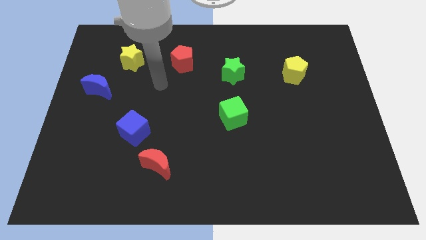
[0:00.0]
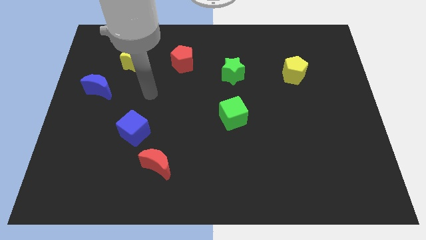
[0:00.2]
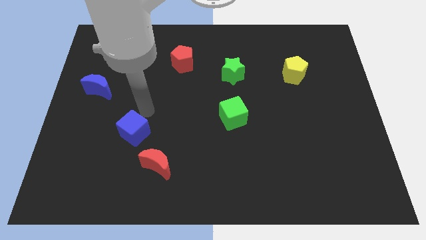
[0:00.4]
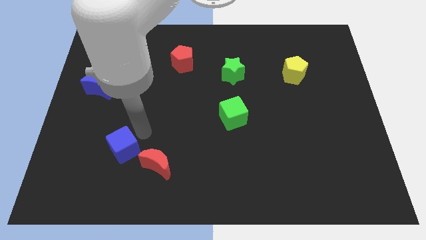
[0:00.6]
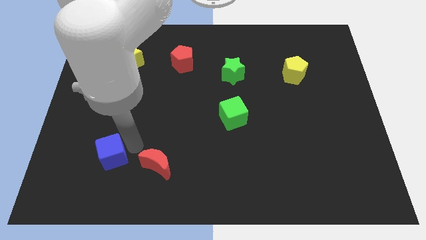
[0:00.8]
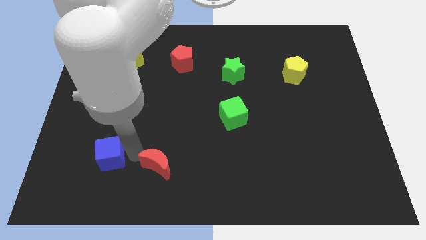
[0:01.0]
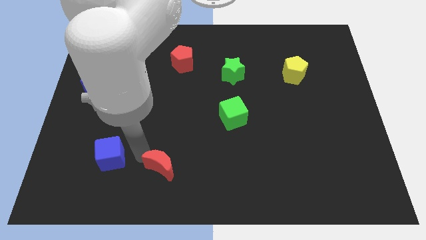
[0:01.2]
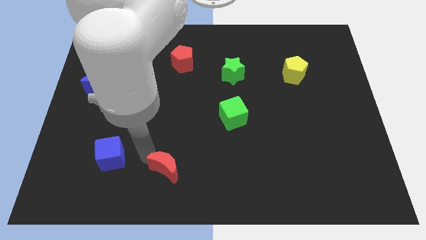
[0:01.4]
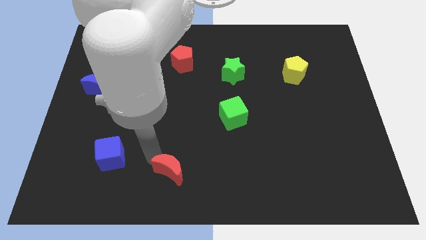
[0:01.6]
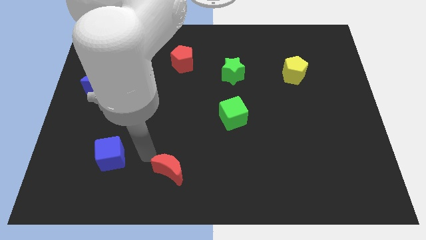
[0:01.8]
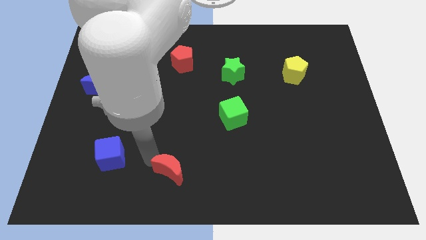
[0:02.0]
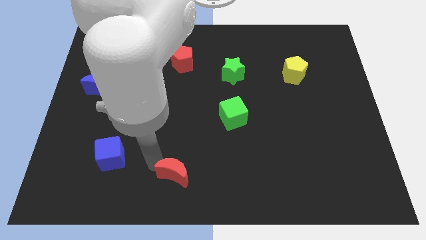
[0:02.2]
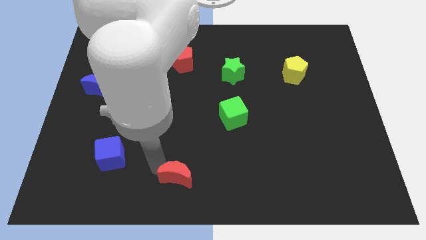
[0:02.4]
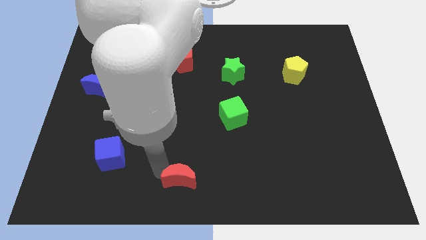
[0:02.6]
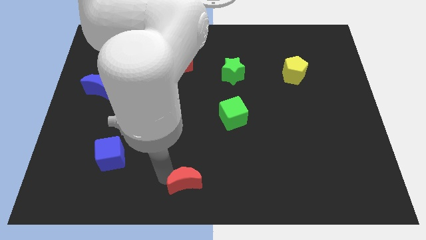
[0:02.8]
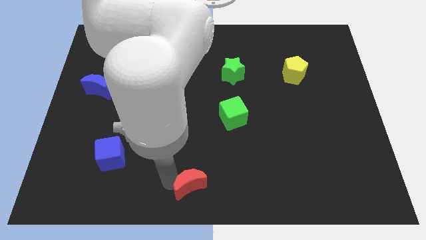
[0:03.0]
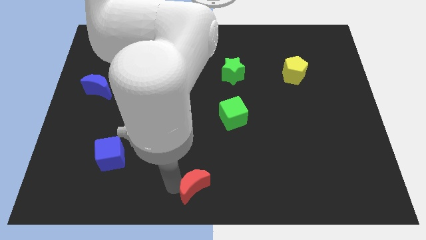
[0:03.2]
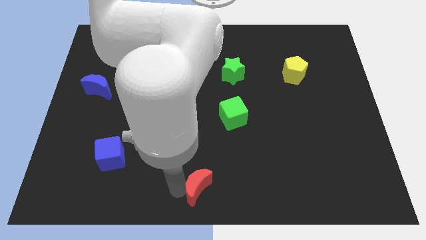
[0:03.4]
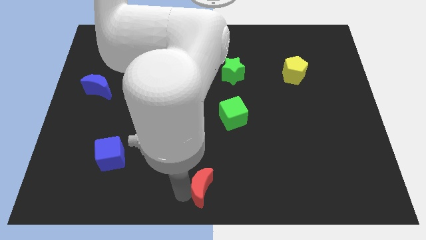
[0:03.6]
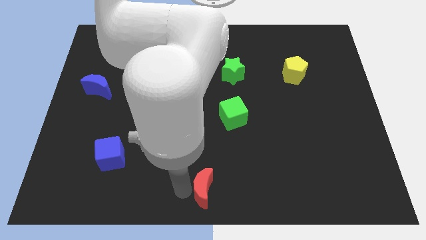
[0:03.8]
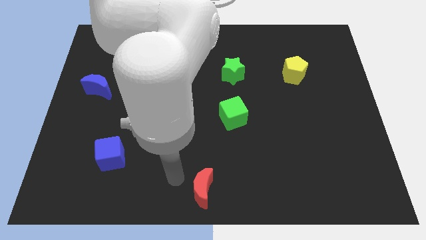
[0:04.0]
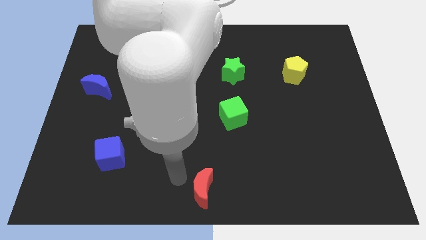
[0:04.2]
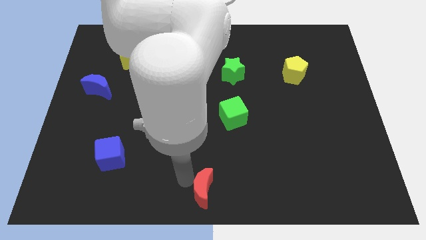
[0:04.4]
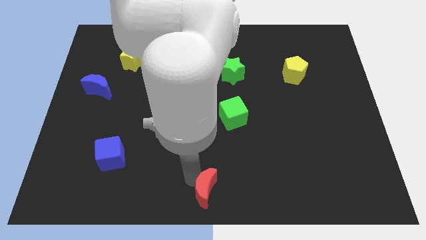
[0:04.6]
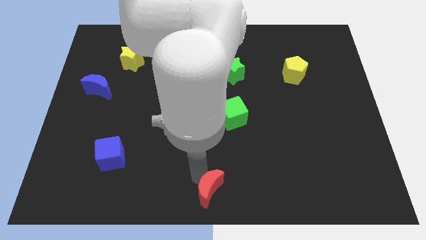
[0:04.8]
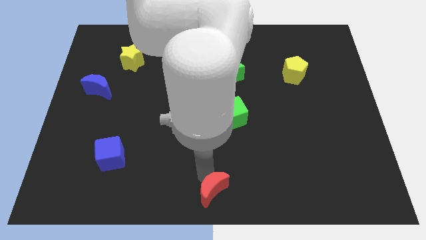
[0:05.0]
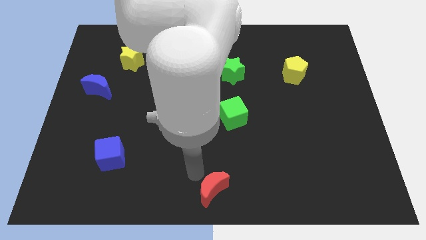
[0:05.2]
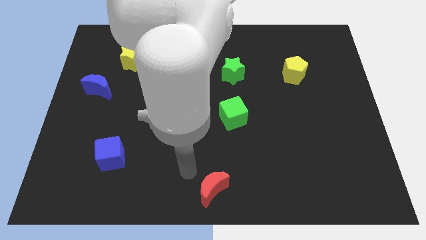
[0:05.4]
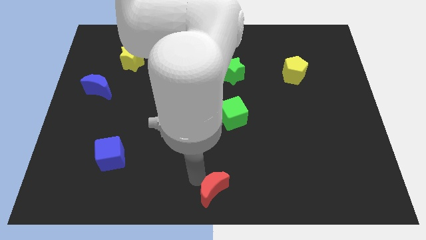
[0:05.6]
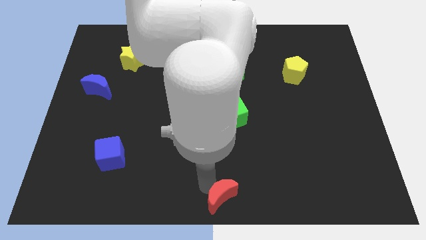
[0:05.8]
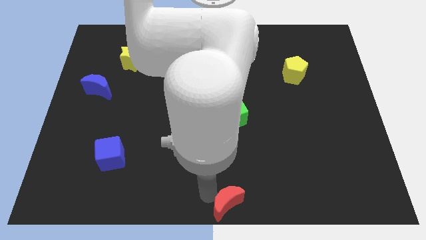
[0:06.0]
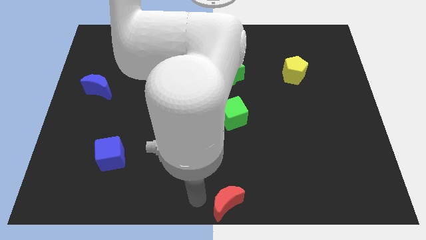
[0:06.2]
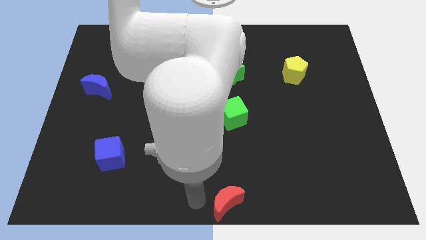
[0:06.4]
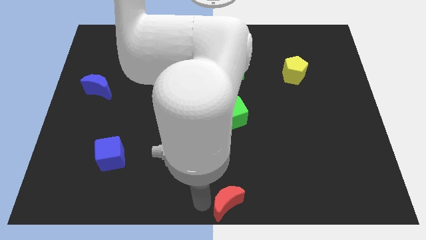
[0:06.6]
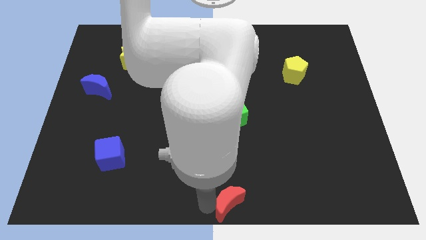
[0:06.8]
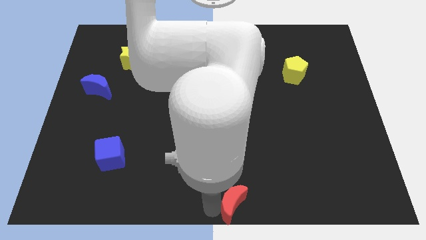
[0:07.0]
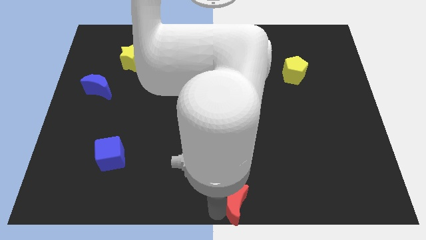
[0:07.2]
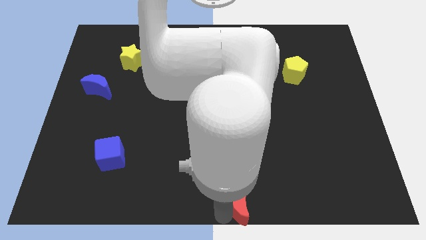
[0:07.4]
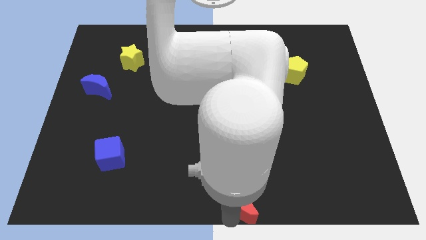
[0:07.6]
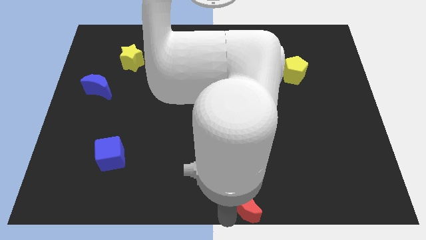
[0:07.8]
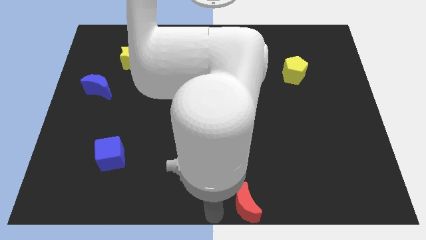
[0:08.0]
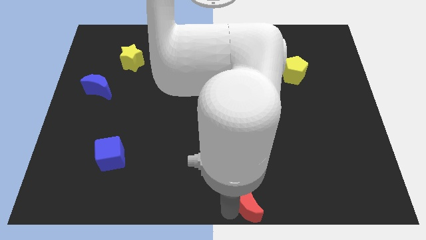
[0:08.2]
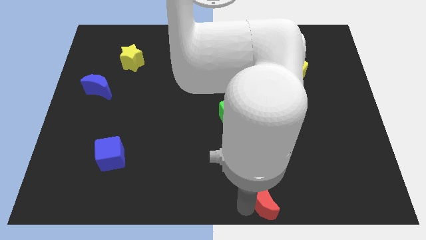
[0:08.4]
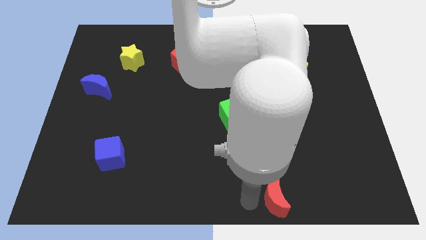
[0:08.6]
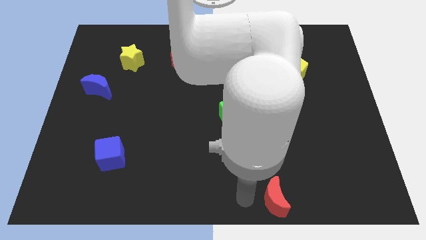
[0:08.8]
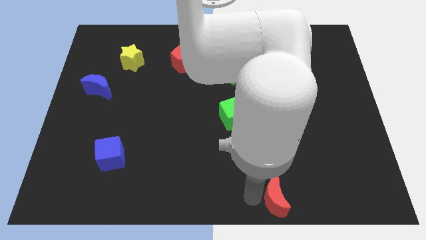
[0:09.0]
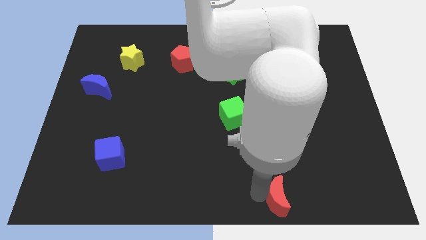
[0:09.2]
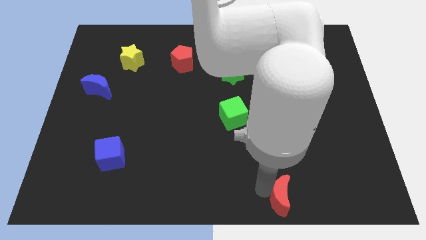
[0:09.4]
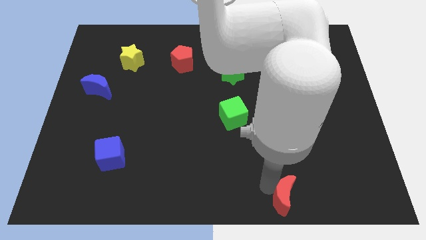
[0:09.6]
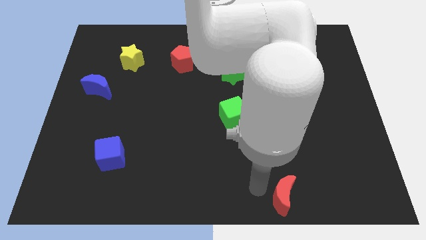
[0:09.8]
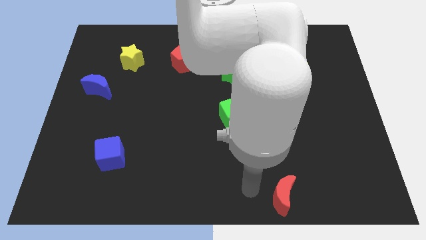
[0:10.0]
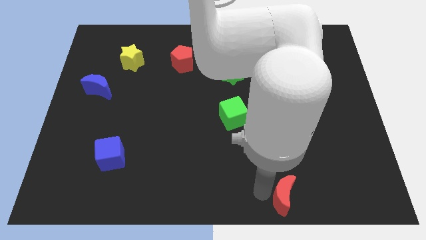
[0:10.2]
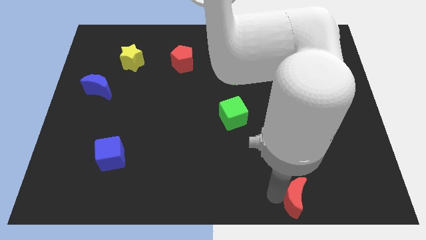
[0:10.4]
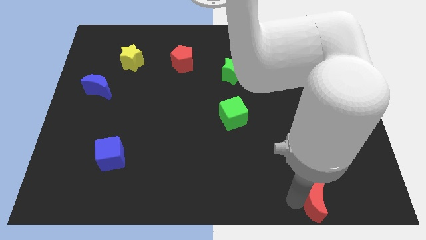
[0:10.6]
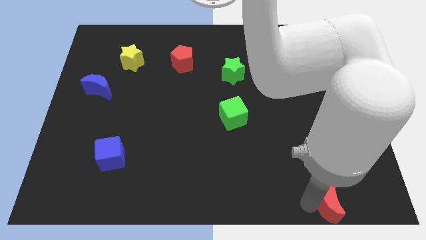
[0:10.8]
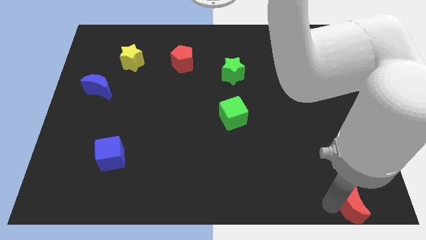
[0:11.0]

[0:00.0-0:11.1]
push the red moon to the bottom right corner
